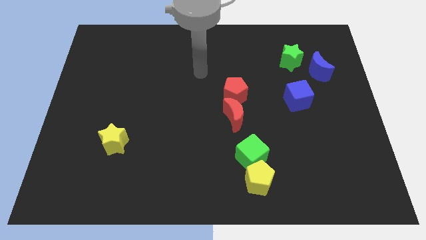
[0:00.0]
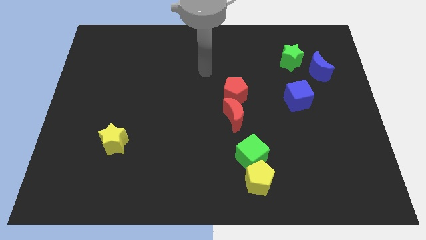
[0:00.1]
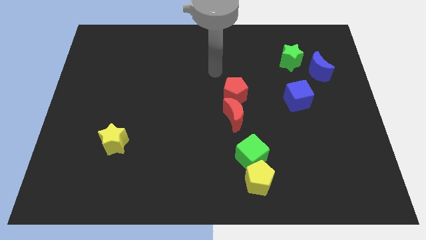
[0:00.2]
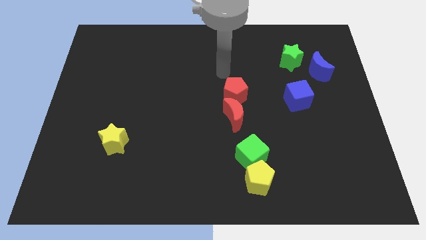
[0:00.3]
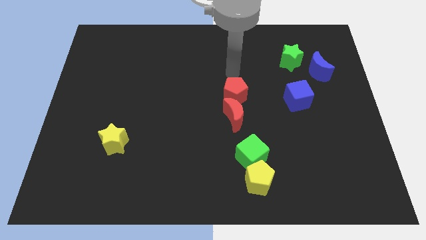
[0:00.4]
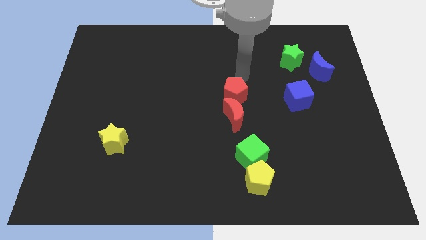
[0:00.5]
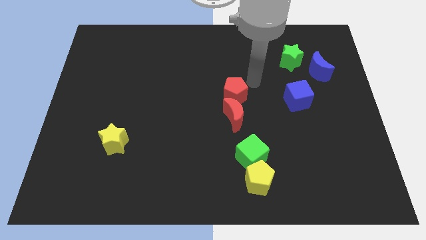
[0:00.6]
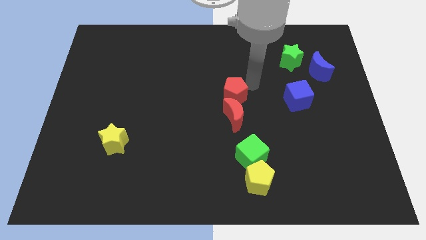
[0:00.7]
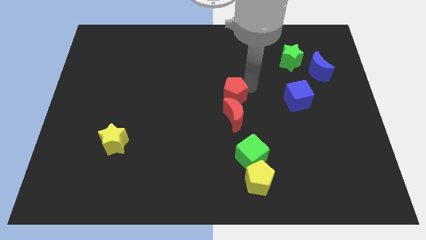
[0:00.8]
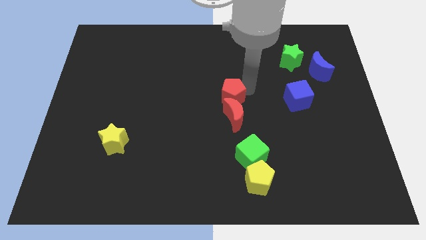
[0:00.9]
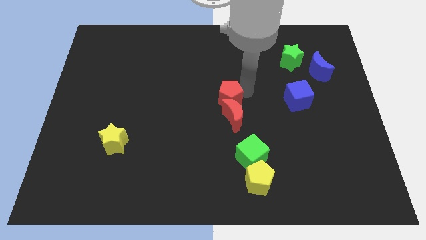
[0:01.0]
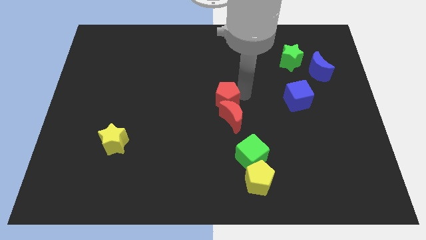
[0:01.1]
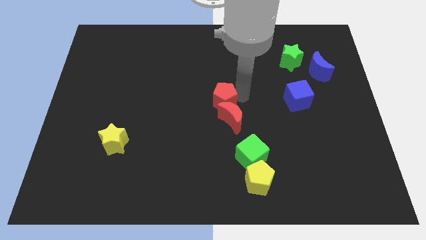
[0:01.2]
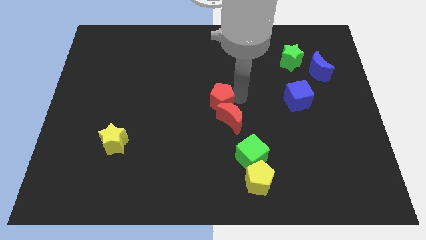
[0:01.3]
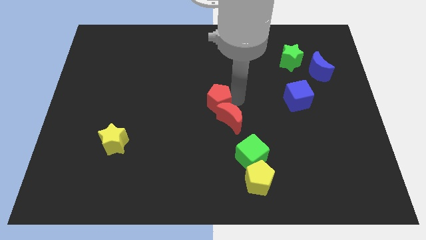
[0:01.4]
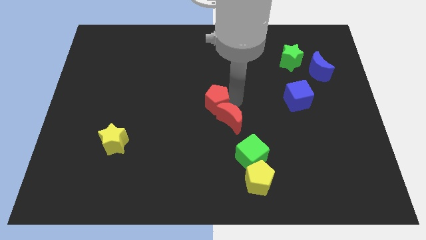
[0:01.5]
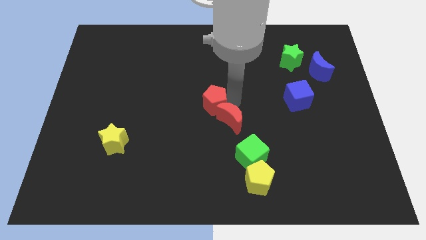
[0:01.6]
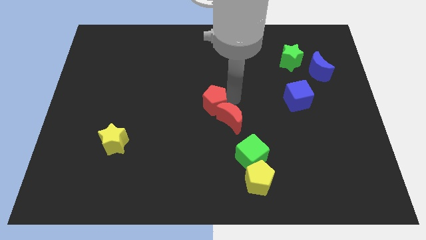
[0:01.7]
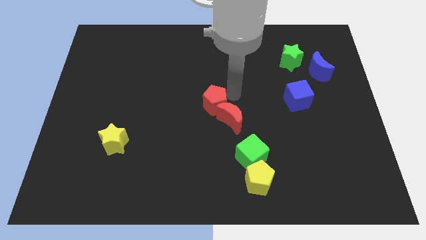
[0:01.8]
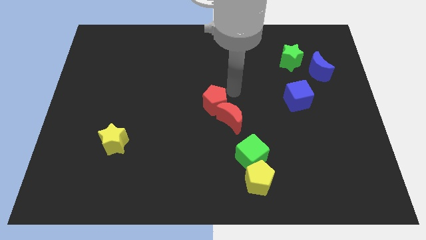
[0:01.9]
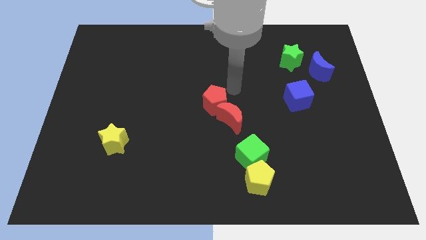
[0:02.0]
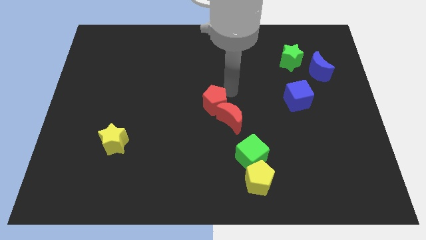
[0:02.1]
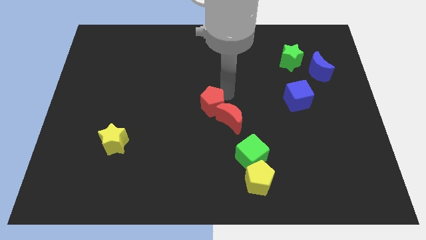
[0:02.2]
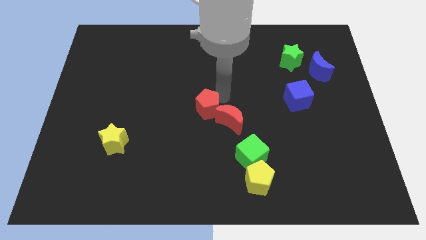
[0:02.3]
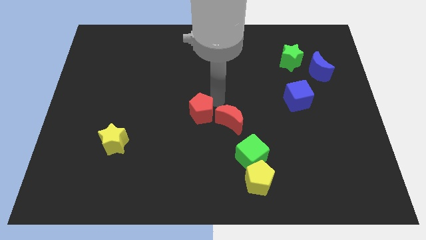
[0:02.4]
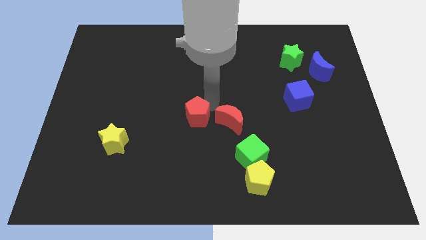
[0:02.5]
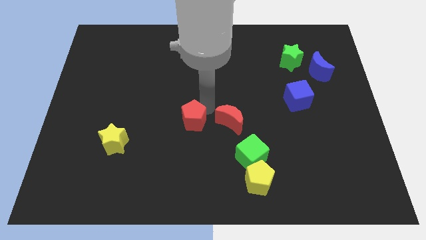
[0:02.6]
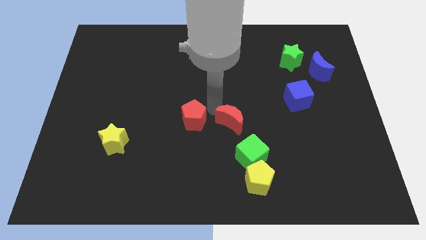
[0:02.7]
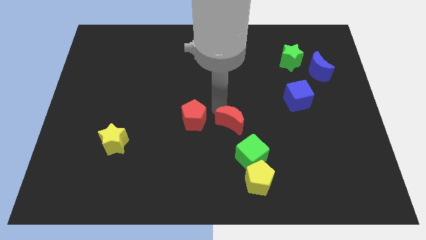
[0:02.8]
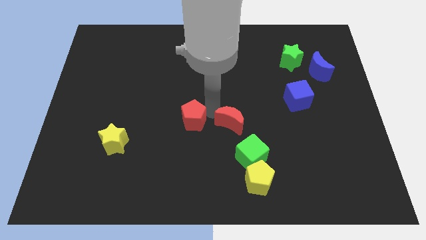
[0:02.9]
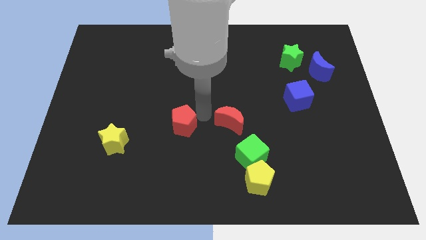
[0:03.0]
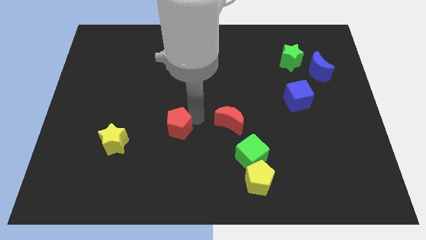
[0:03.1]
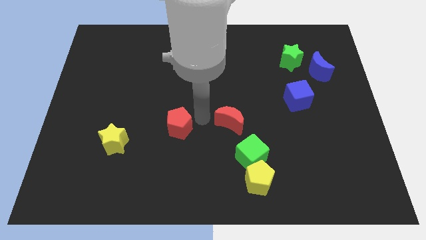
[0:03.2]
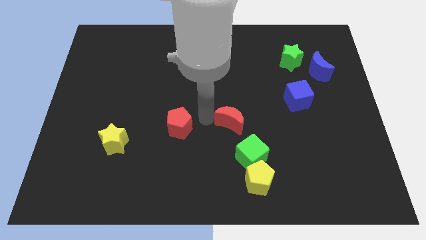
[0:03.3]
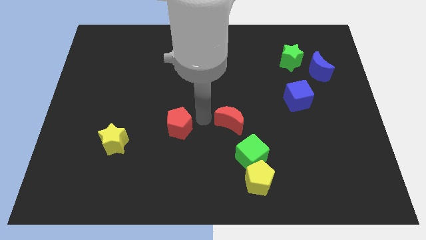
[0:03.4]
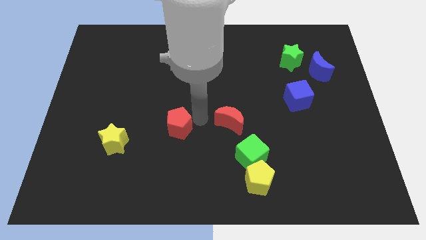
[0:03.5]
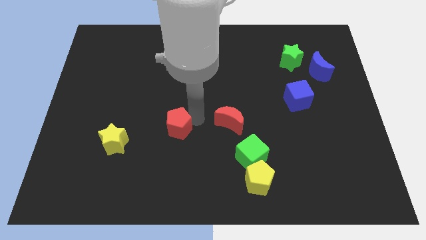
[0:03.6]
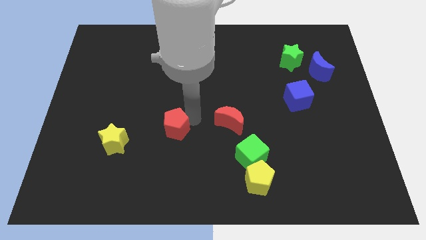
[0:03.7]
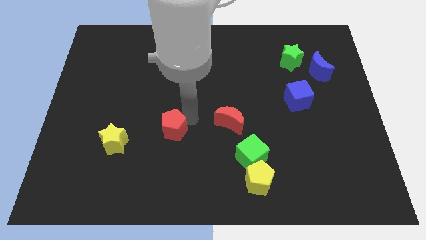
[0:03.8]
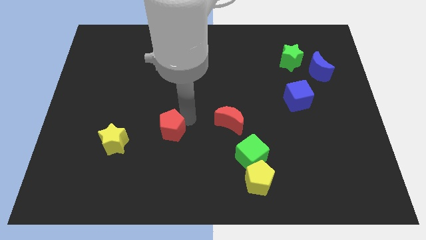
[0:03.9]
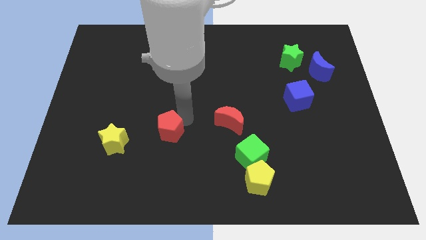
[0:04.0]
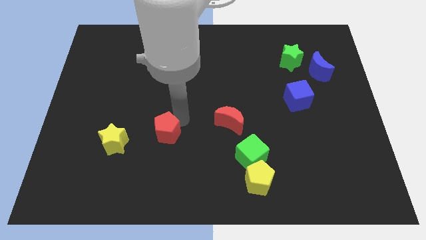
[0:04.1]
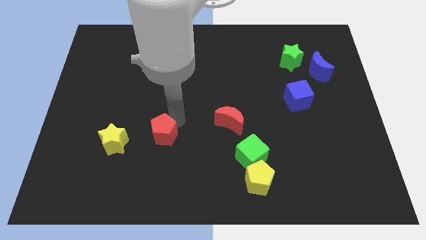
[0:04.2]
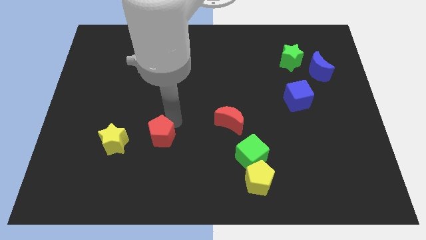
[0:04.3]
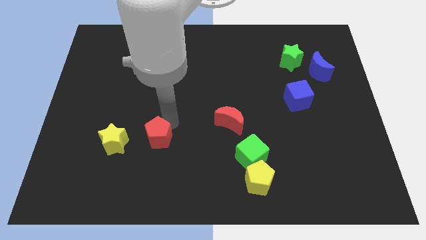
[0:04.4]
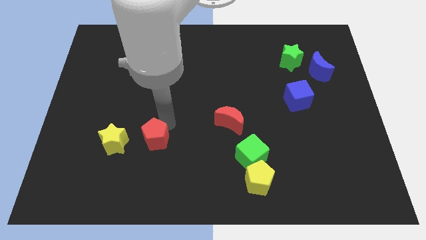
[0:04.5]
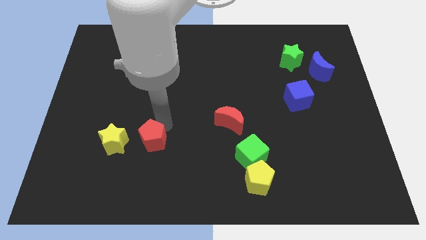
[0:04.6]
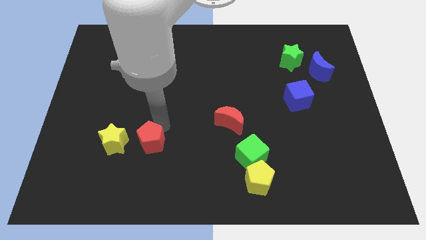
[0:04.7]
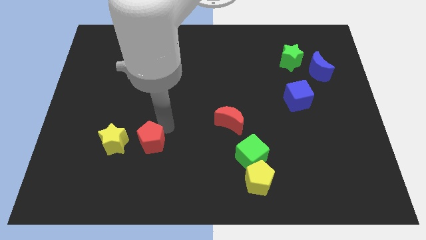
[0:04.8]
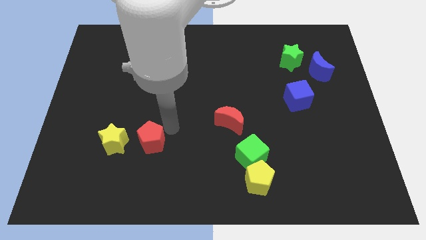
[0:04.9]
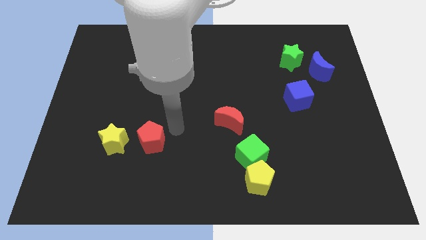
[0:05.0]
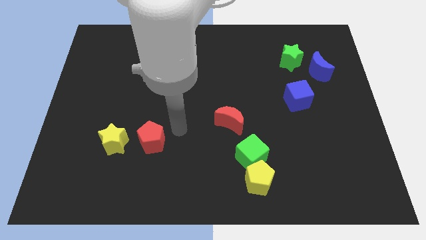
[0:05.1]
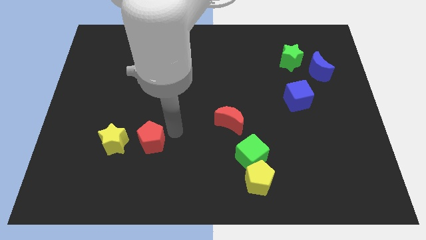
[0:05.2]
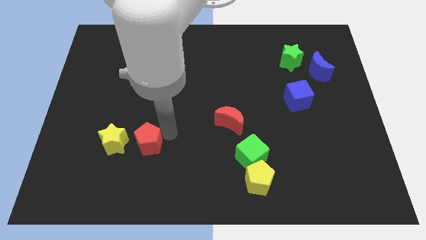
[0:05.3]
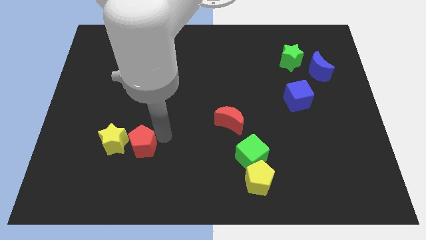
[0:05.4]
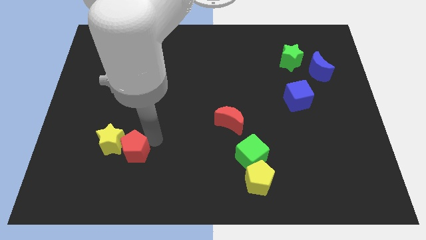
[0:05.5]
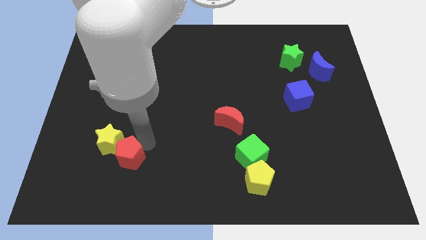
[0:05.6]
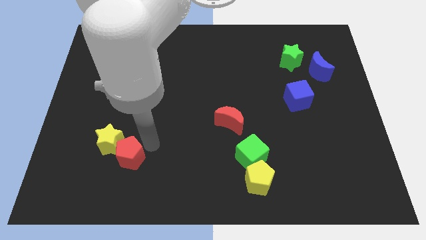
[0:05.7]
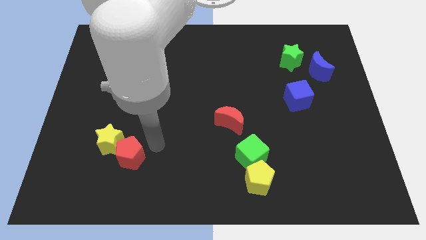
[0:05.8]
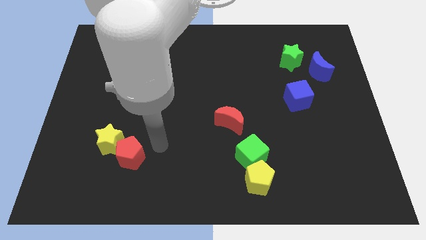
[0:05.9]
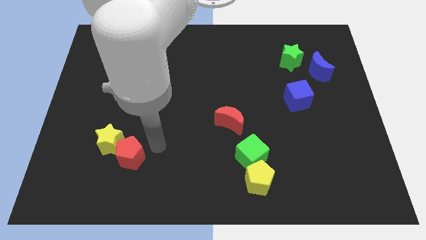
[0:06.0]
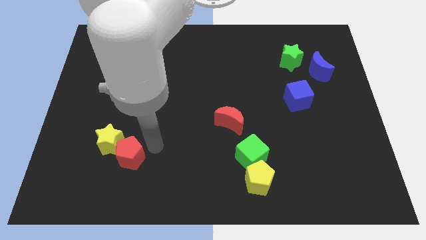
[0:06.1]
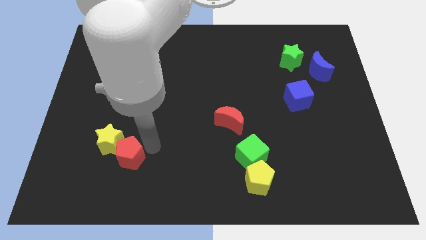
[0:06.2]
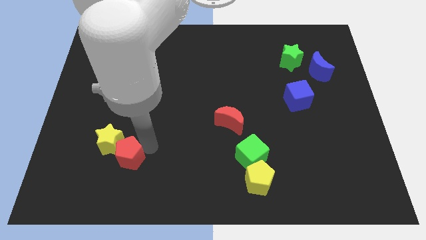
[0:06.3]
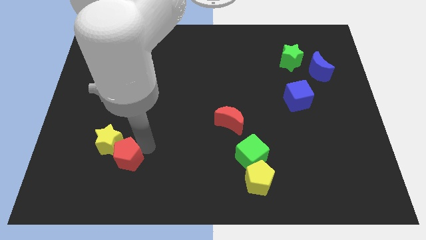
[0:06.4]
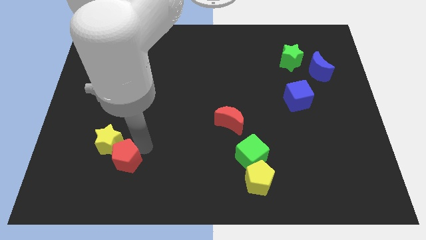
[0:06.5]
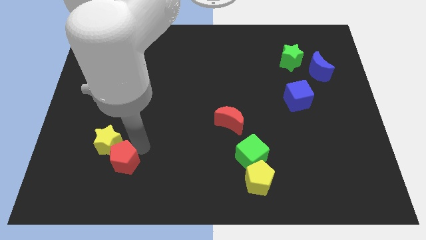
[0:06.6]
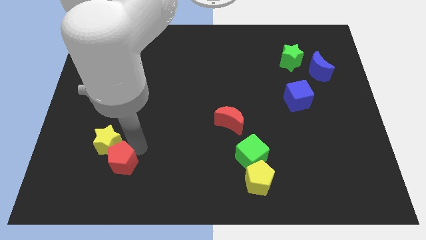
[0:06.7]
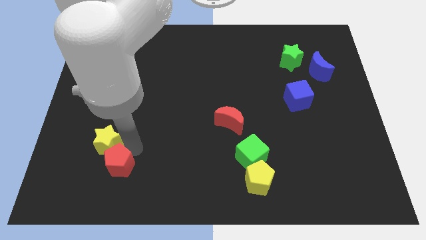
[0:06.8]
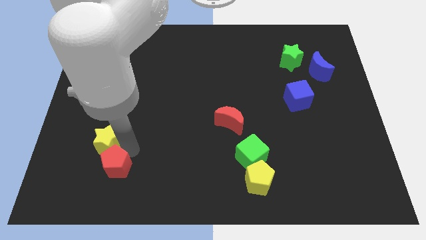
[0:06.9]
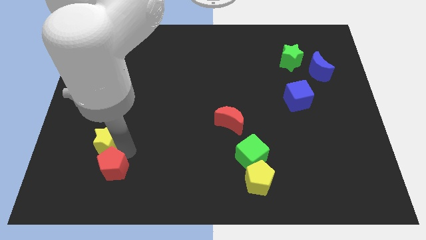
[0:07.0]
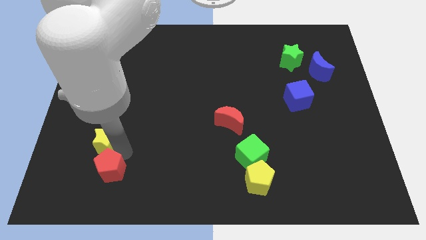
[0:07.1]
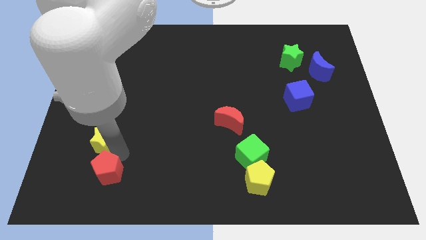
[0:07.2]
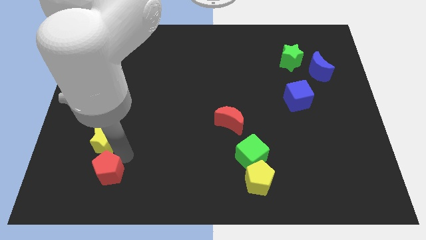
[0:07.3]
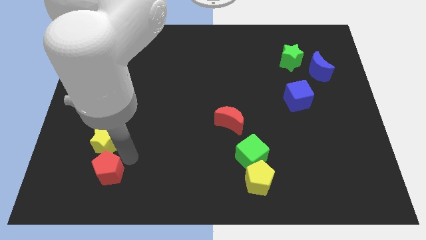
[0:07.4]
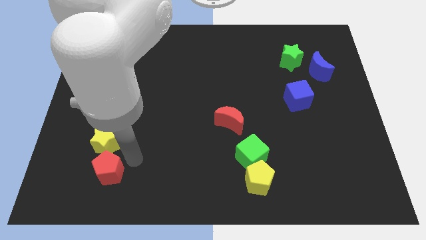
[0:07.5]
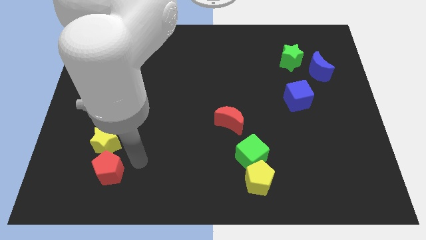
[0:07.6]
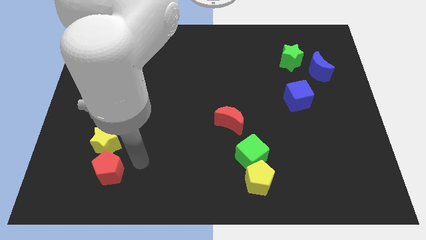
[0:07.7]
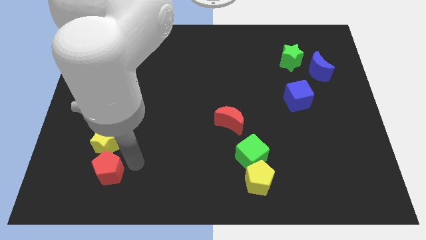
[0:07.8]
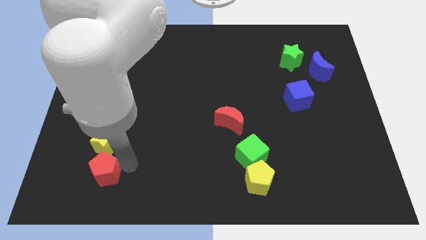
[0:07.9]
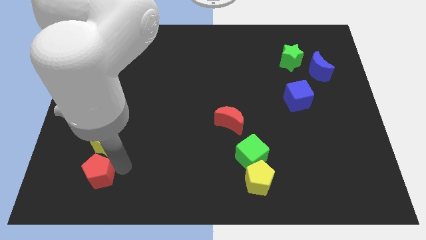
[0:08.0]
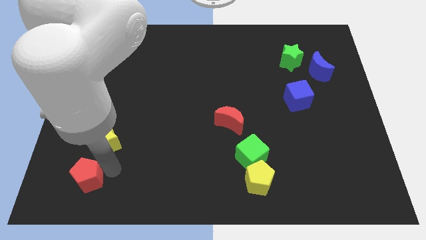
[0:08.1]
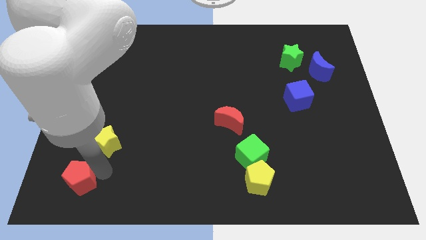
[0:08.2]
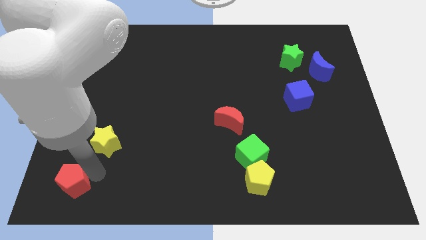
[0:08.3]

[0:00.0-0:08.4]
push the red pentagon to the bottom left of the board
